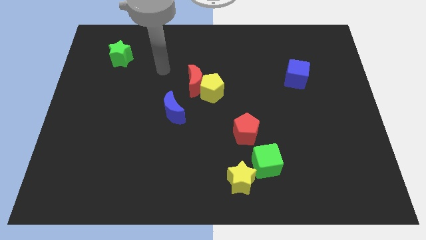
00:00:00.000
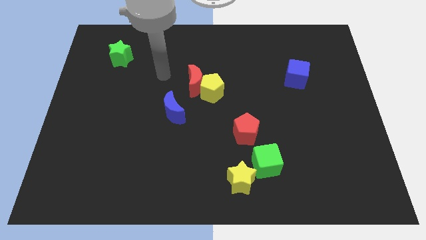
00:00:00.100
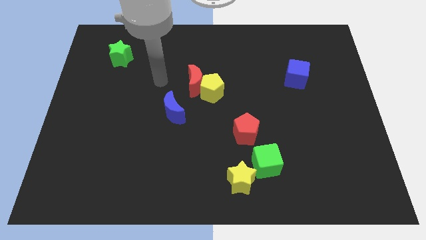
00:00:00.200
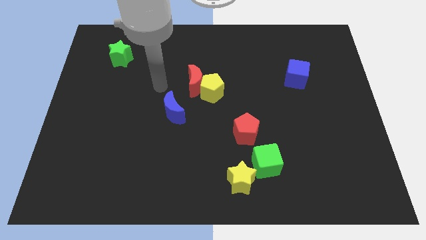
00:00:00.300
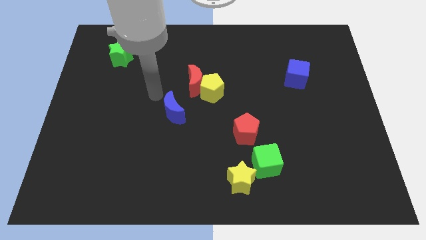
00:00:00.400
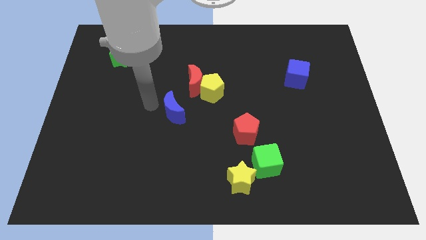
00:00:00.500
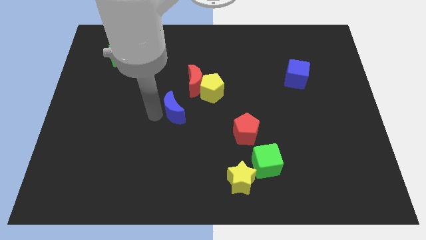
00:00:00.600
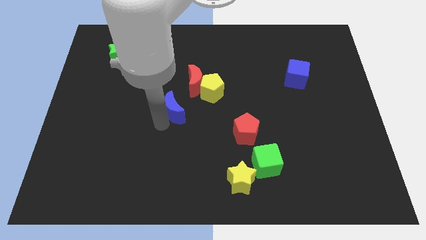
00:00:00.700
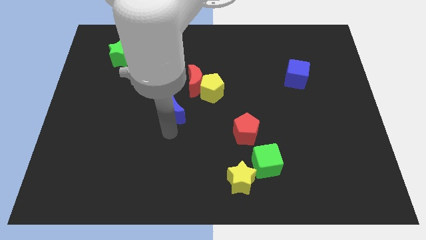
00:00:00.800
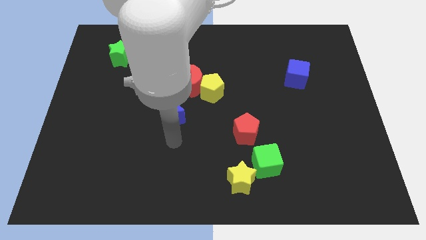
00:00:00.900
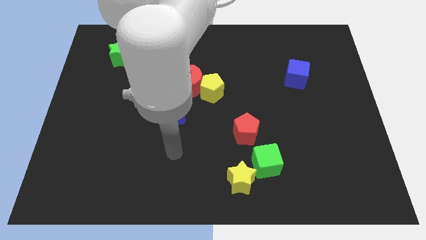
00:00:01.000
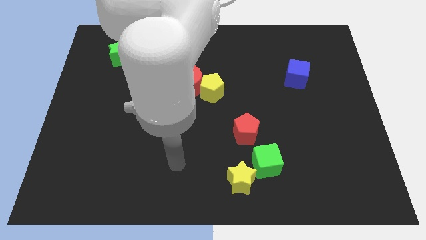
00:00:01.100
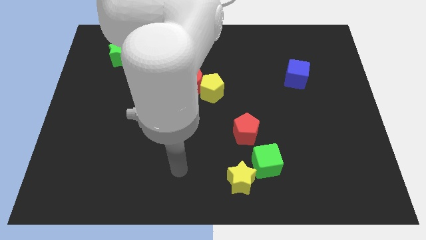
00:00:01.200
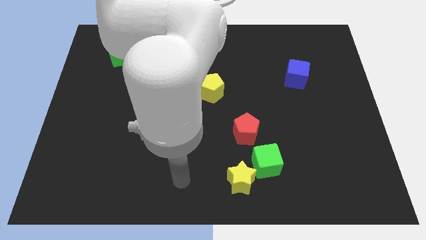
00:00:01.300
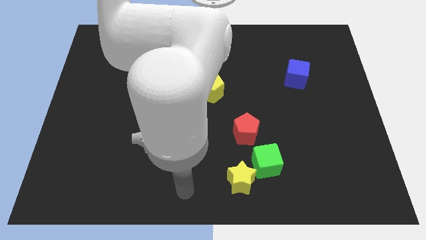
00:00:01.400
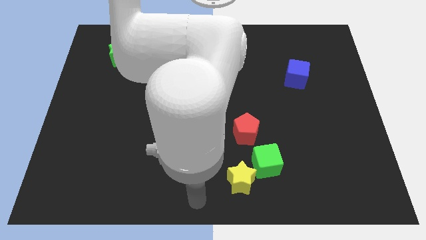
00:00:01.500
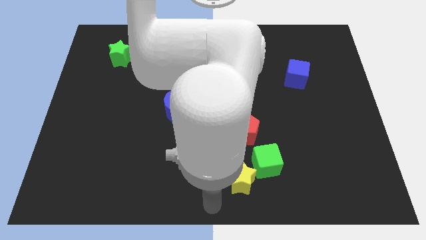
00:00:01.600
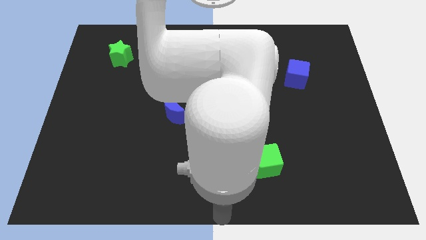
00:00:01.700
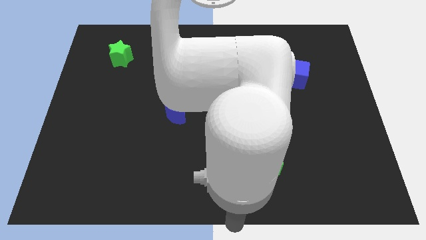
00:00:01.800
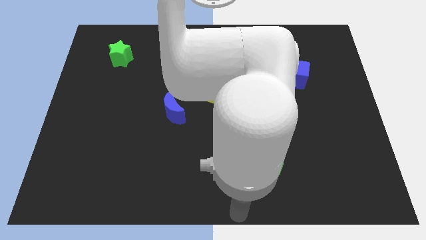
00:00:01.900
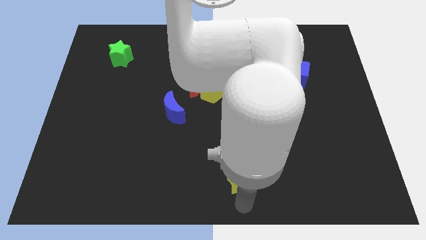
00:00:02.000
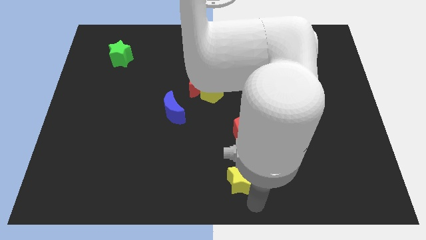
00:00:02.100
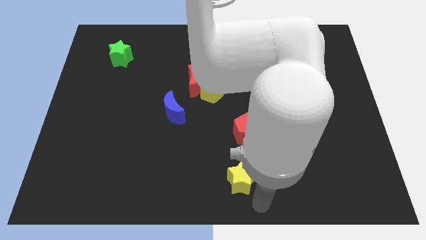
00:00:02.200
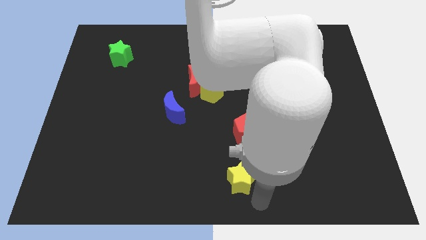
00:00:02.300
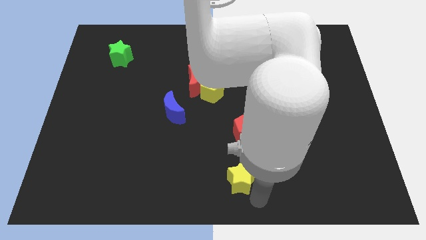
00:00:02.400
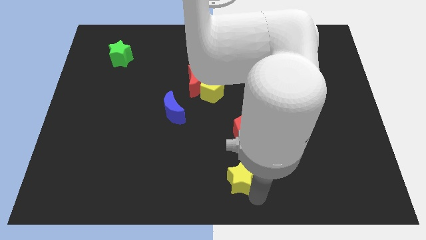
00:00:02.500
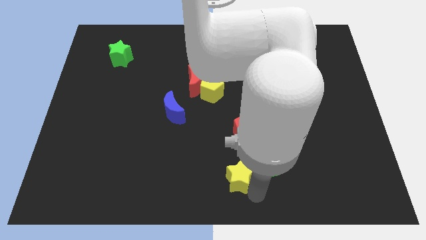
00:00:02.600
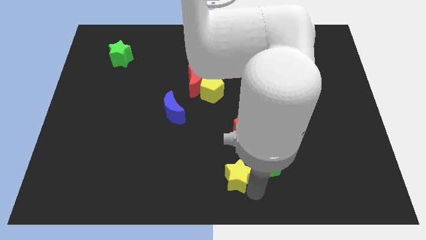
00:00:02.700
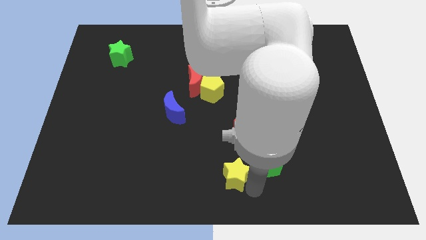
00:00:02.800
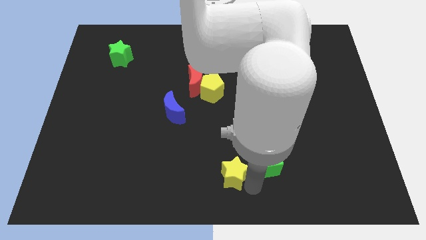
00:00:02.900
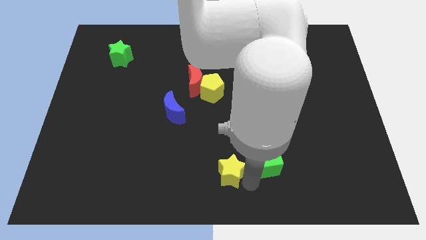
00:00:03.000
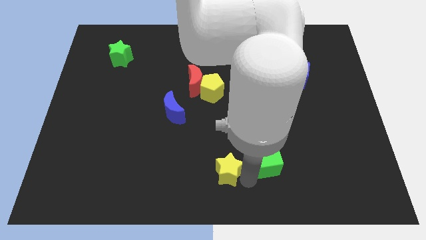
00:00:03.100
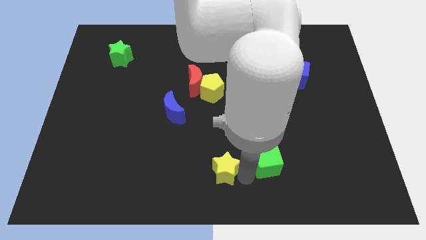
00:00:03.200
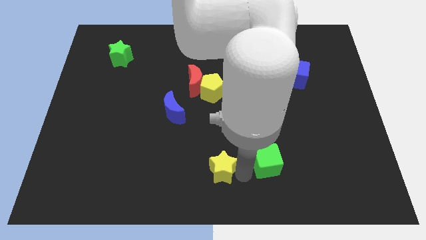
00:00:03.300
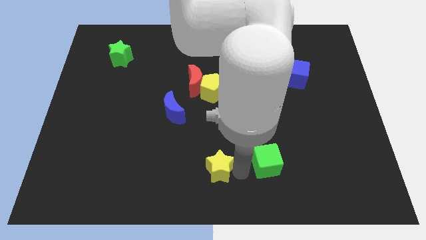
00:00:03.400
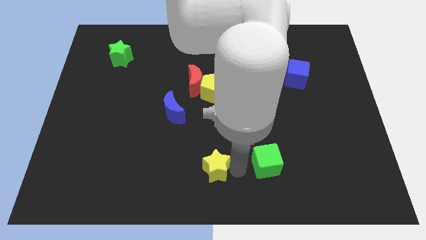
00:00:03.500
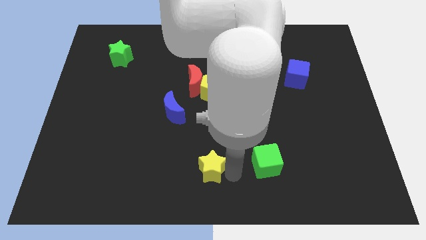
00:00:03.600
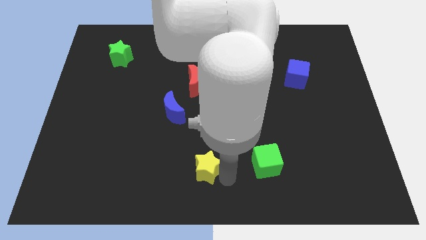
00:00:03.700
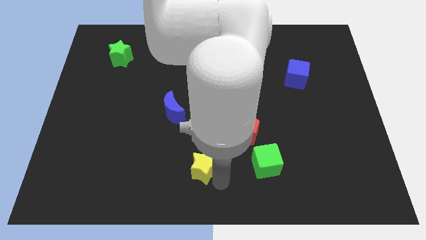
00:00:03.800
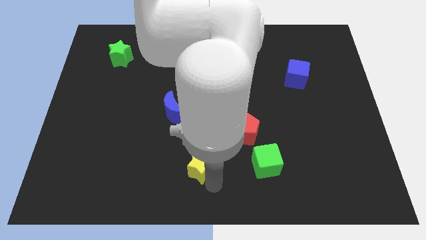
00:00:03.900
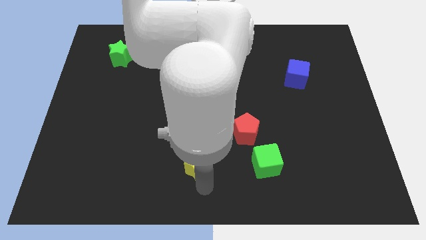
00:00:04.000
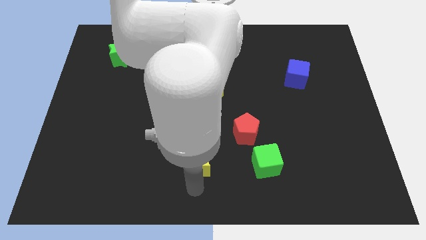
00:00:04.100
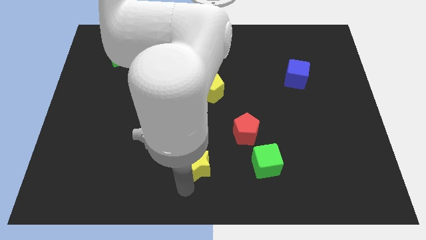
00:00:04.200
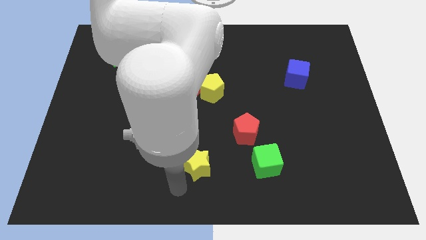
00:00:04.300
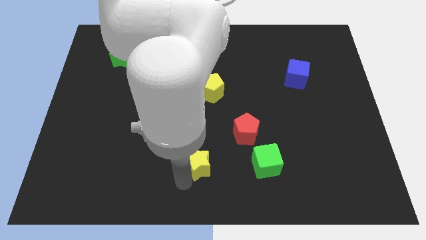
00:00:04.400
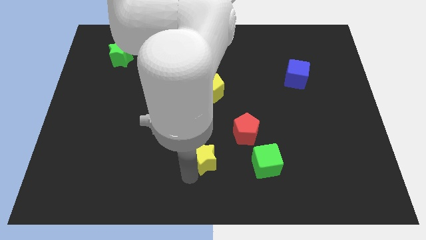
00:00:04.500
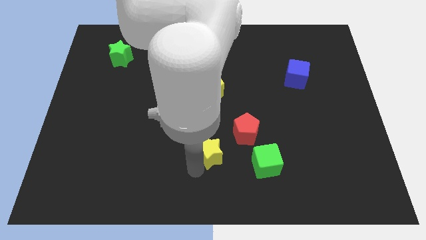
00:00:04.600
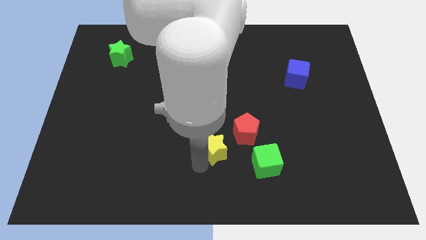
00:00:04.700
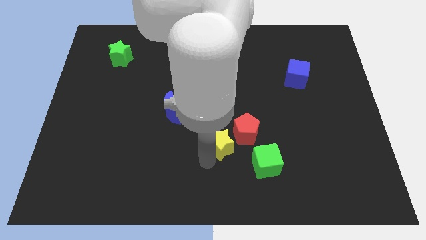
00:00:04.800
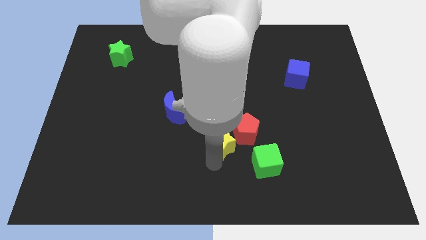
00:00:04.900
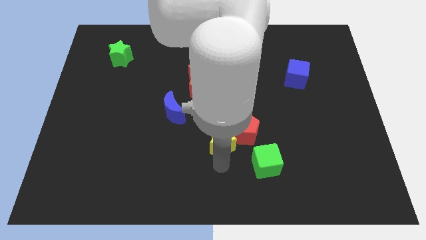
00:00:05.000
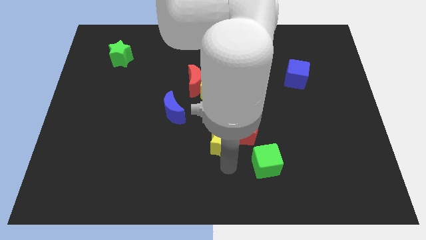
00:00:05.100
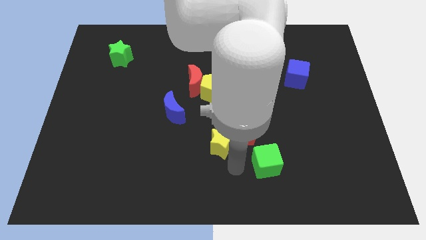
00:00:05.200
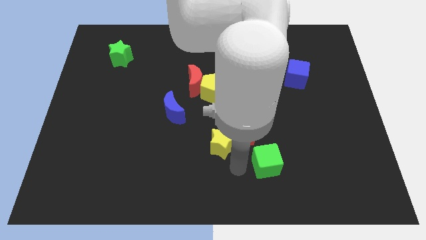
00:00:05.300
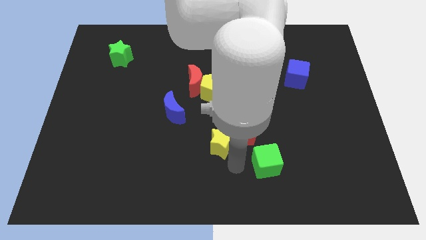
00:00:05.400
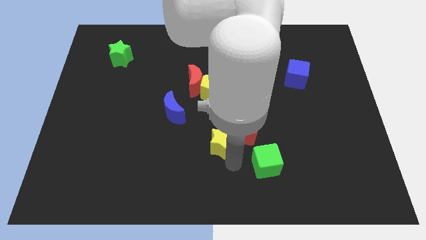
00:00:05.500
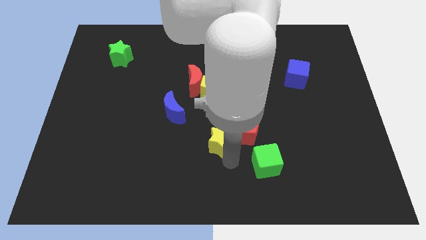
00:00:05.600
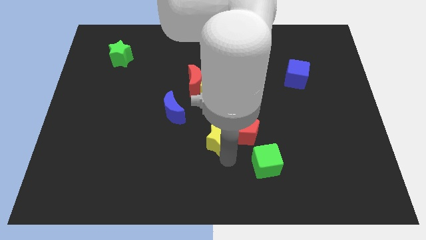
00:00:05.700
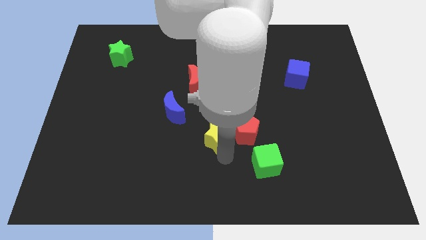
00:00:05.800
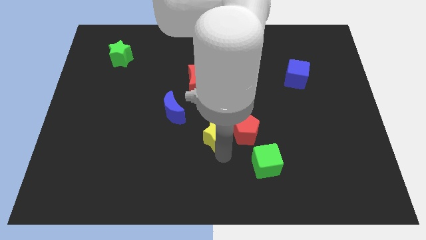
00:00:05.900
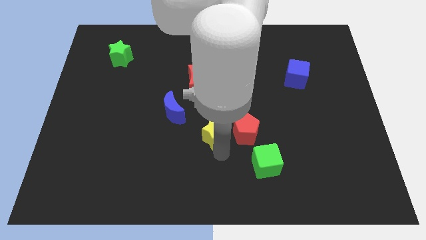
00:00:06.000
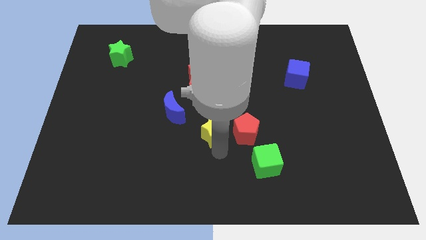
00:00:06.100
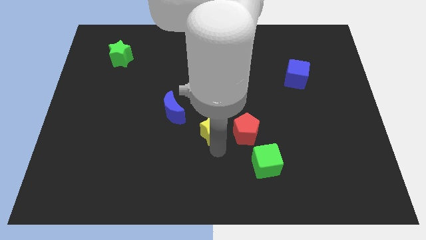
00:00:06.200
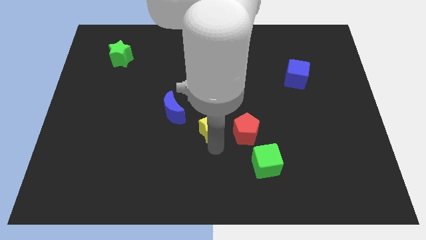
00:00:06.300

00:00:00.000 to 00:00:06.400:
slide the yellow star to the bottom side of the red moon

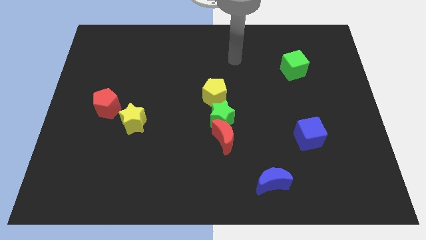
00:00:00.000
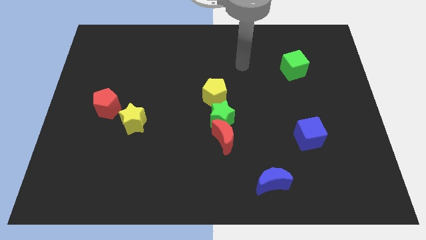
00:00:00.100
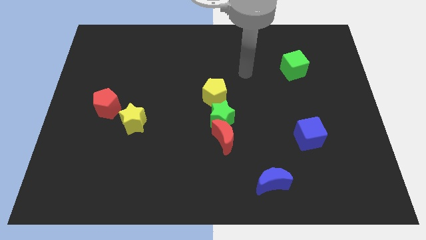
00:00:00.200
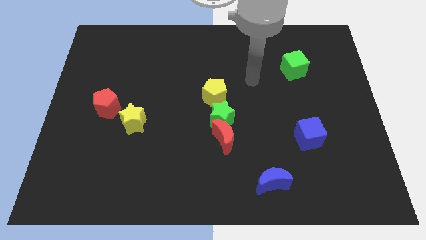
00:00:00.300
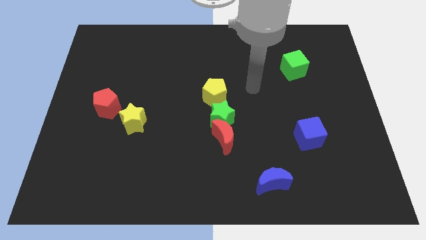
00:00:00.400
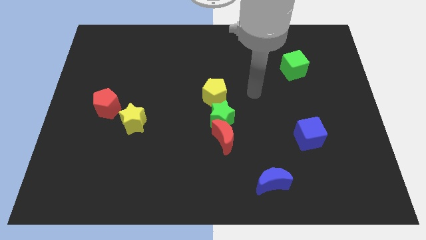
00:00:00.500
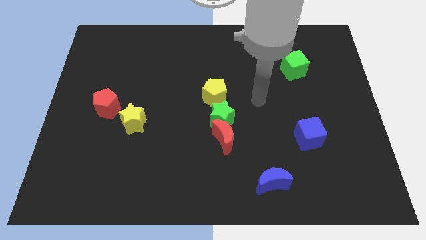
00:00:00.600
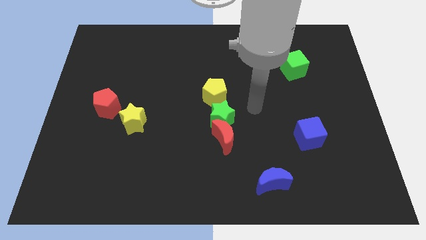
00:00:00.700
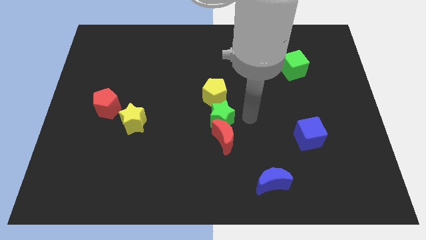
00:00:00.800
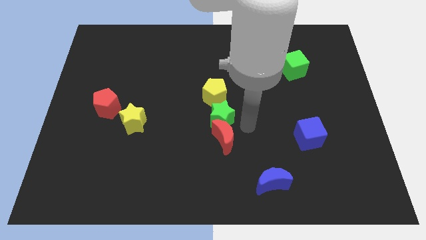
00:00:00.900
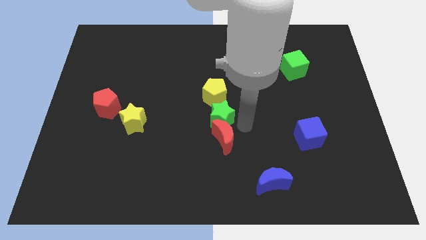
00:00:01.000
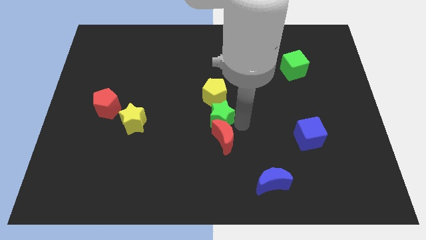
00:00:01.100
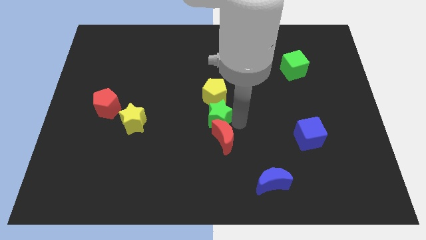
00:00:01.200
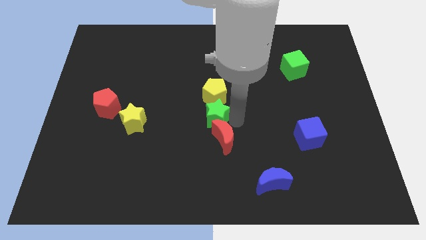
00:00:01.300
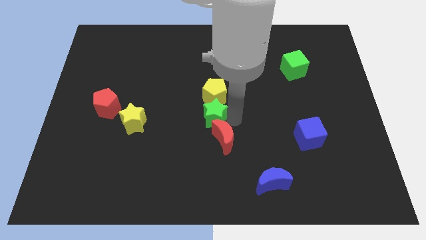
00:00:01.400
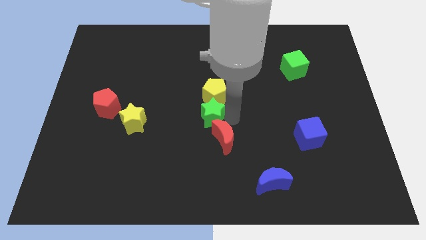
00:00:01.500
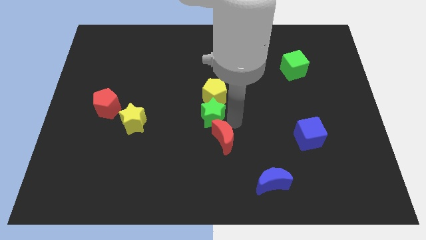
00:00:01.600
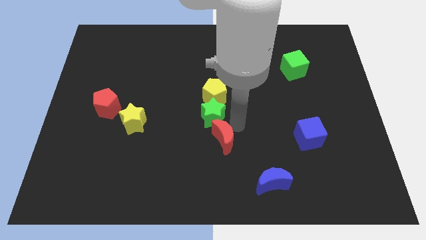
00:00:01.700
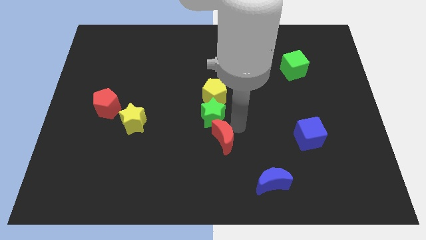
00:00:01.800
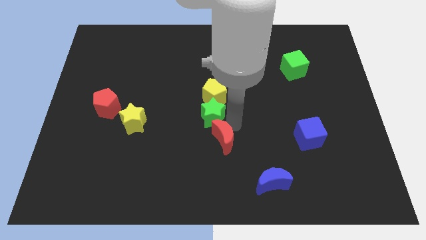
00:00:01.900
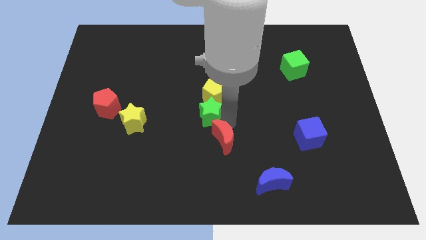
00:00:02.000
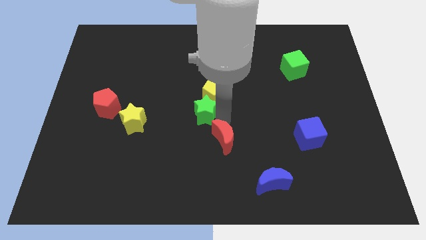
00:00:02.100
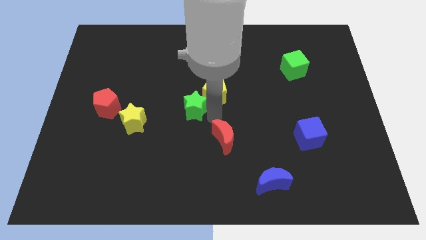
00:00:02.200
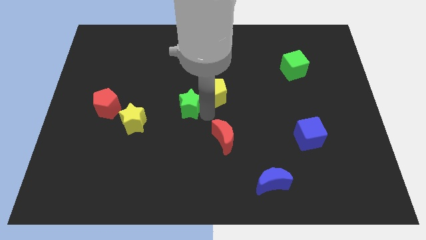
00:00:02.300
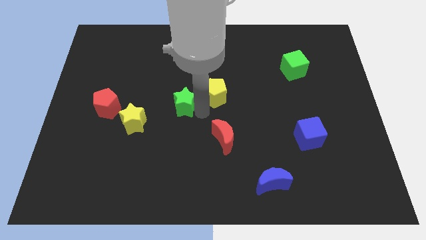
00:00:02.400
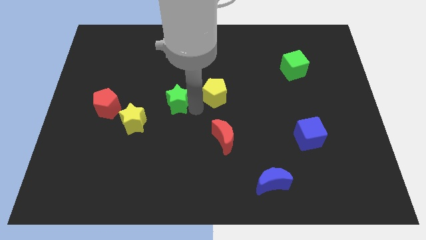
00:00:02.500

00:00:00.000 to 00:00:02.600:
push the green star just right of the red pentagon
